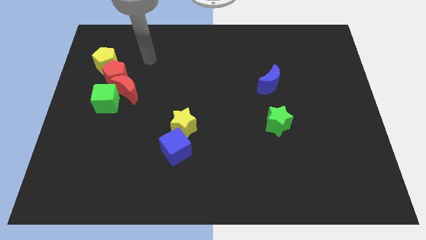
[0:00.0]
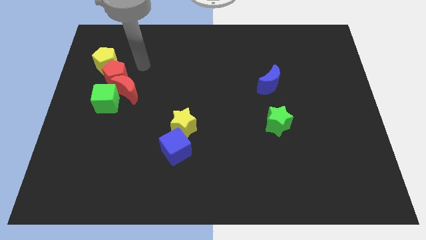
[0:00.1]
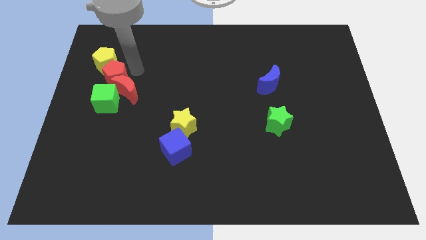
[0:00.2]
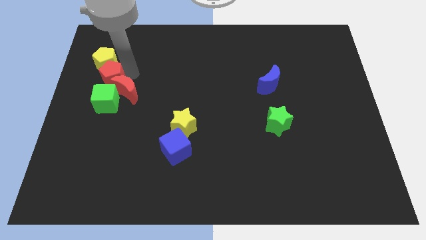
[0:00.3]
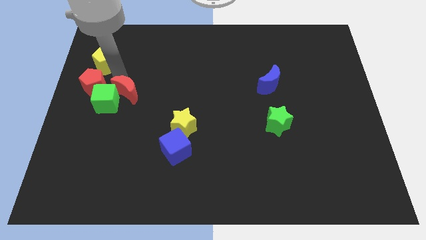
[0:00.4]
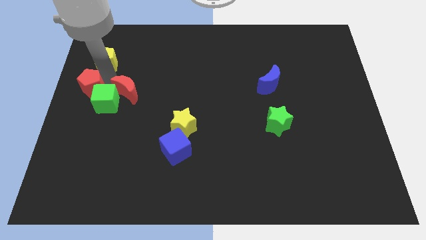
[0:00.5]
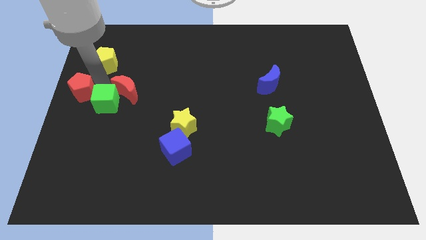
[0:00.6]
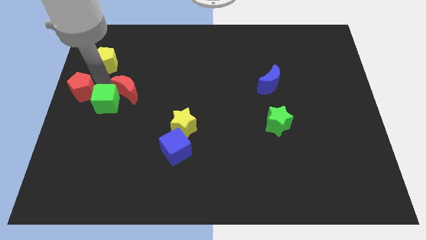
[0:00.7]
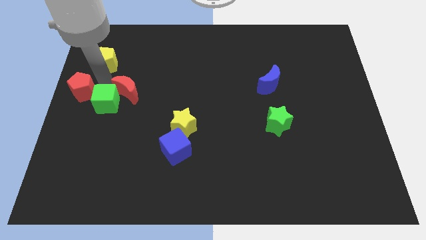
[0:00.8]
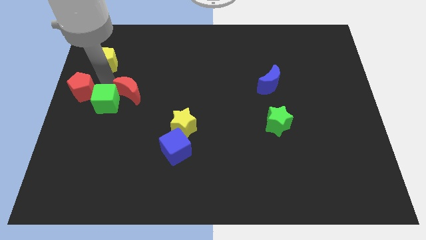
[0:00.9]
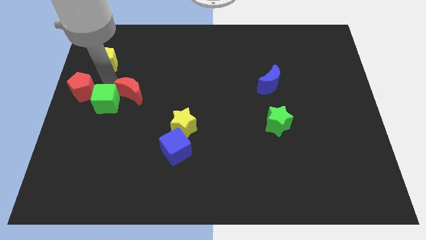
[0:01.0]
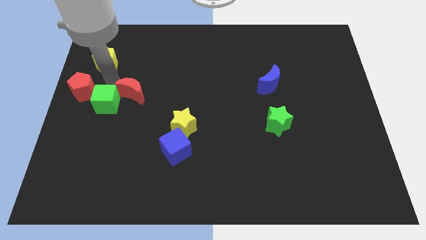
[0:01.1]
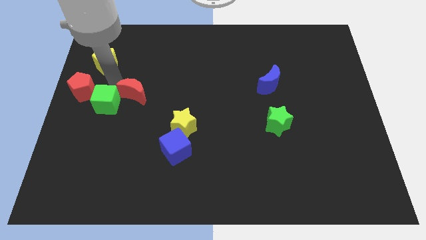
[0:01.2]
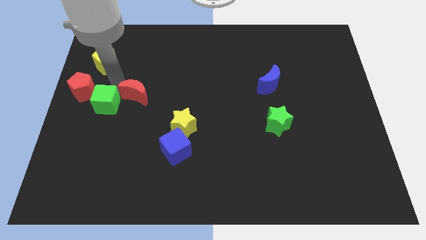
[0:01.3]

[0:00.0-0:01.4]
move the red moon away from the red pentagon and green cube

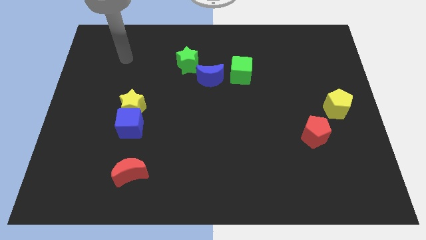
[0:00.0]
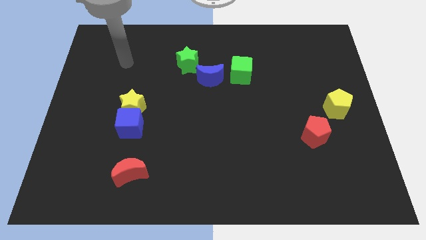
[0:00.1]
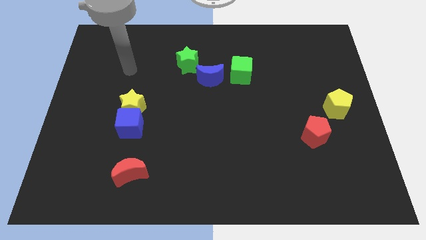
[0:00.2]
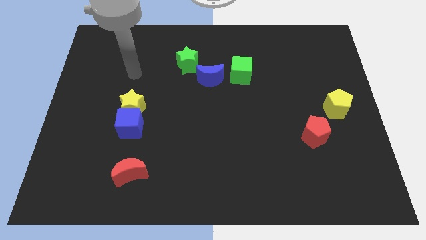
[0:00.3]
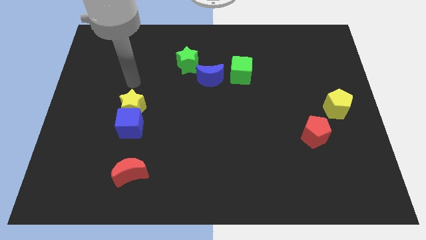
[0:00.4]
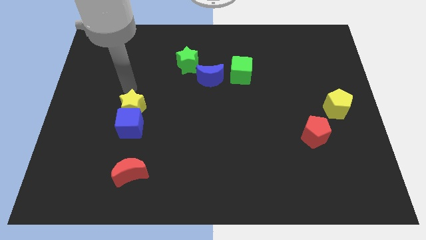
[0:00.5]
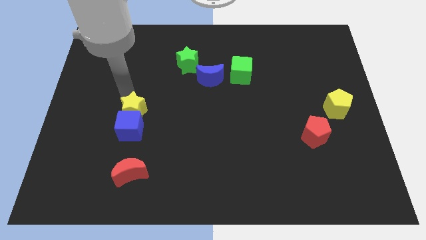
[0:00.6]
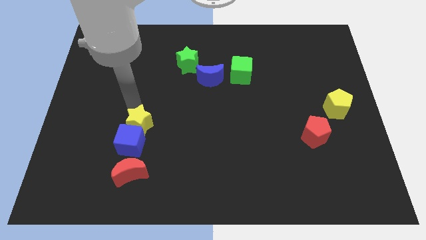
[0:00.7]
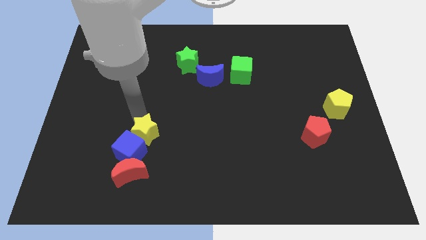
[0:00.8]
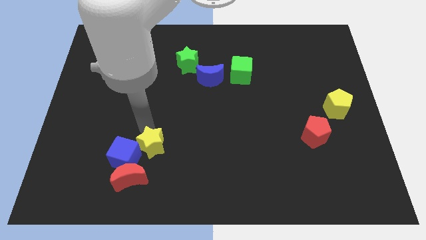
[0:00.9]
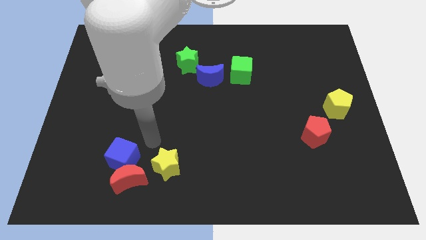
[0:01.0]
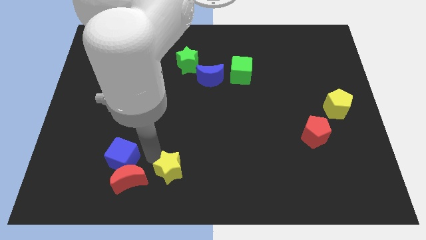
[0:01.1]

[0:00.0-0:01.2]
move the blue cube away from the yellow star

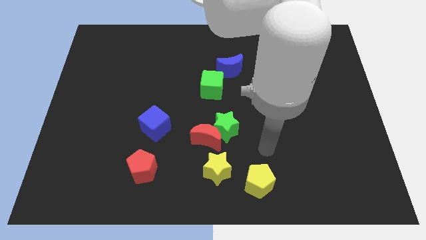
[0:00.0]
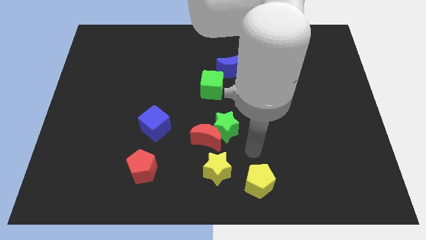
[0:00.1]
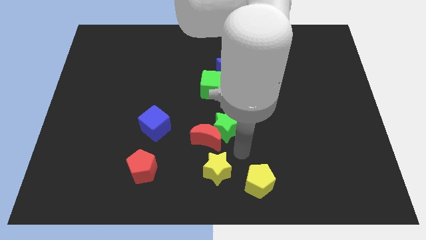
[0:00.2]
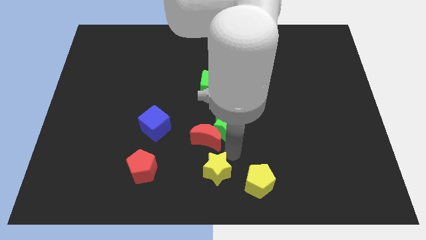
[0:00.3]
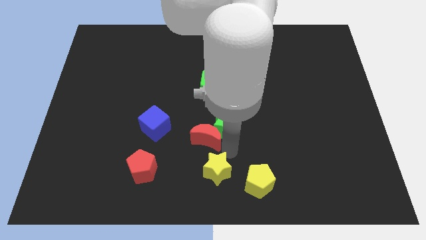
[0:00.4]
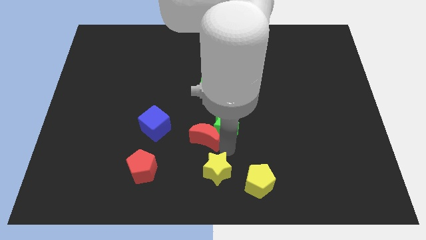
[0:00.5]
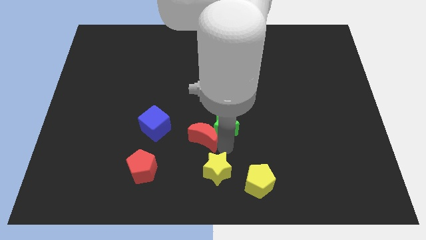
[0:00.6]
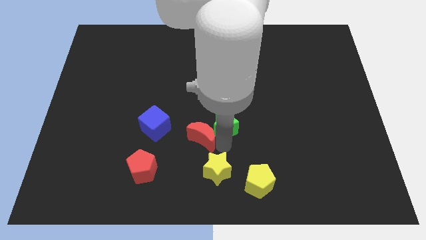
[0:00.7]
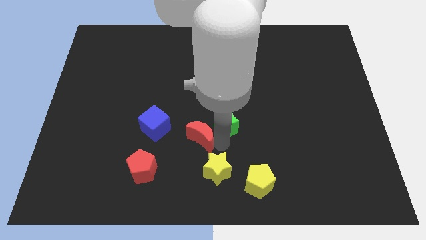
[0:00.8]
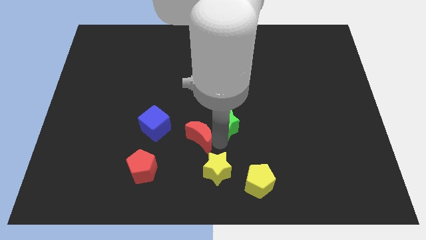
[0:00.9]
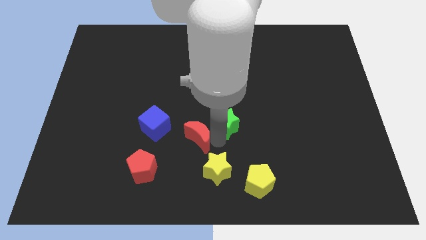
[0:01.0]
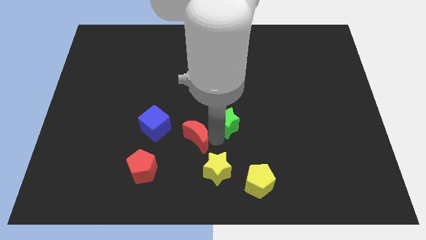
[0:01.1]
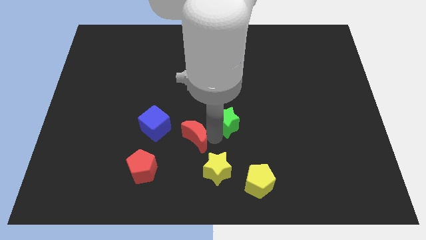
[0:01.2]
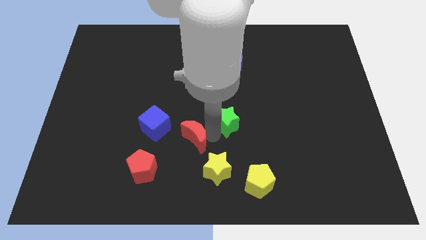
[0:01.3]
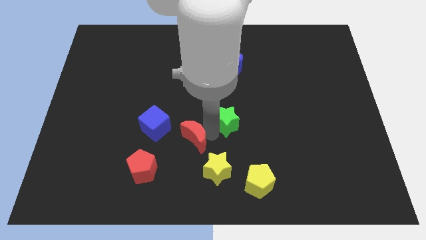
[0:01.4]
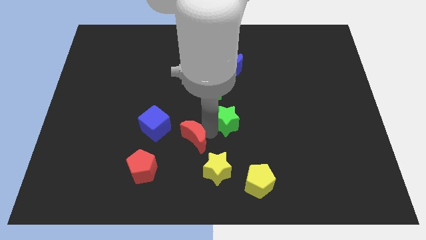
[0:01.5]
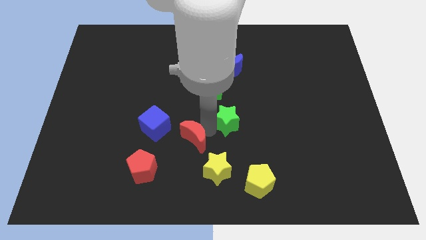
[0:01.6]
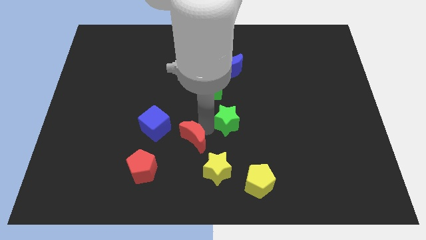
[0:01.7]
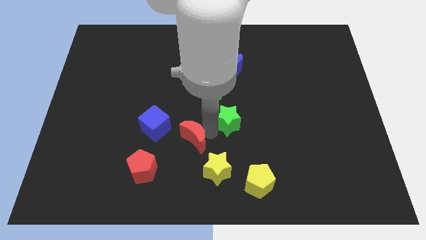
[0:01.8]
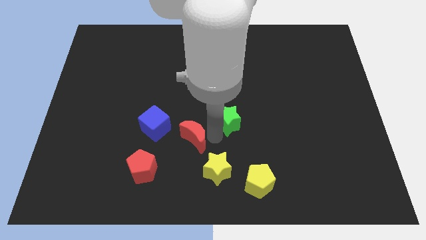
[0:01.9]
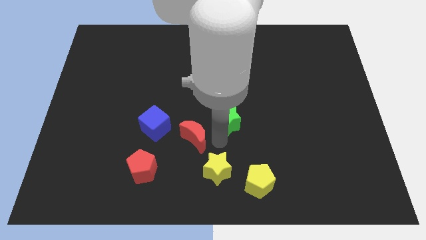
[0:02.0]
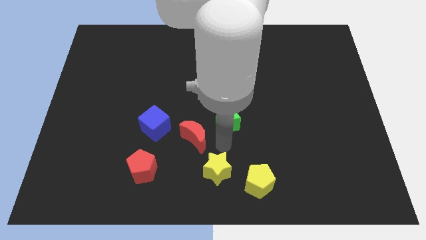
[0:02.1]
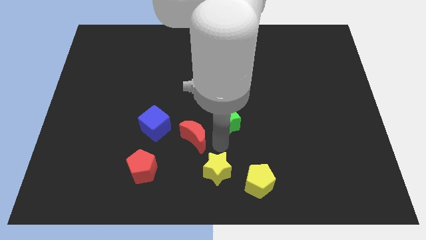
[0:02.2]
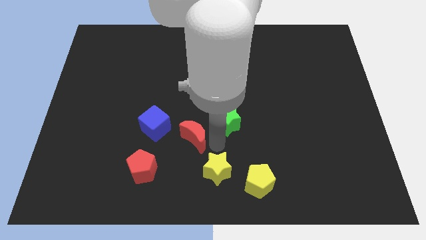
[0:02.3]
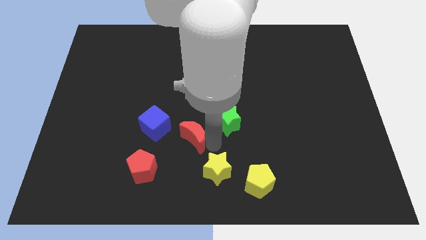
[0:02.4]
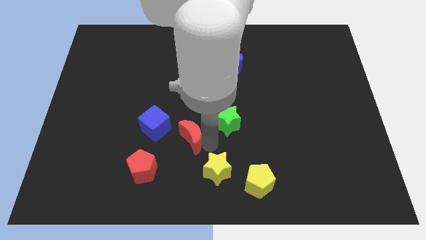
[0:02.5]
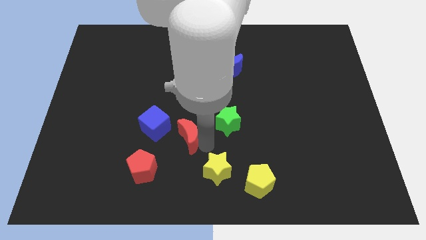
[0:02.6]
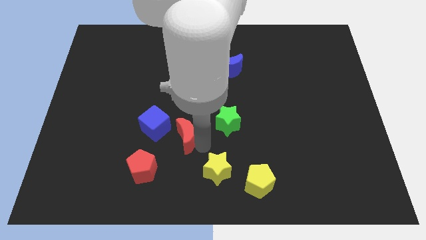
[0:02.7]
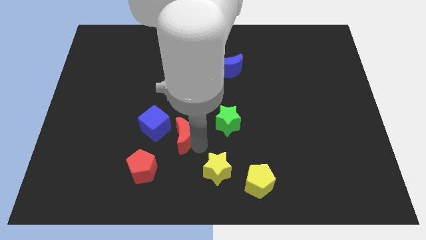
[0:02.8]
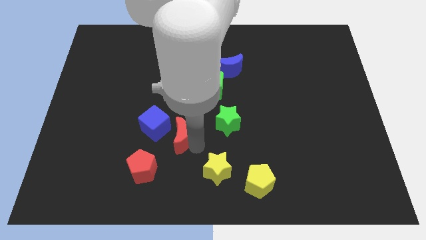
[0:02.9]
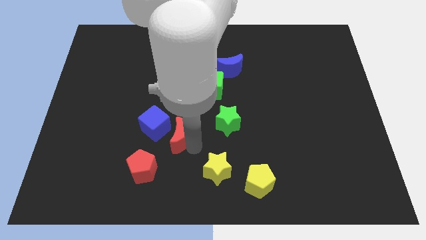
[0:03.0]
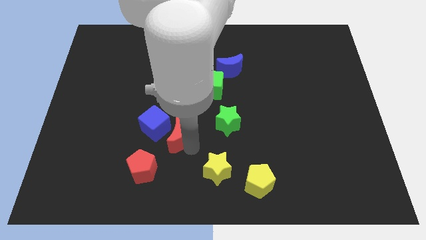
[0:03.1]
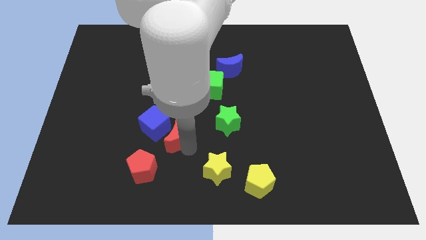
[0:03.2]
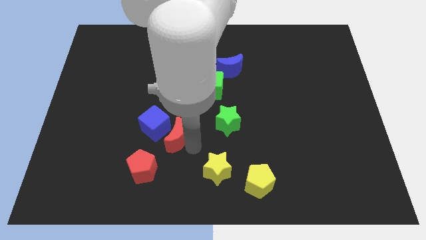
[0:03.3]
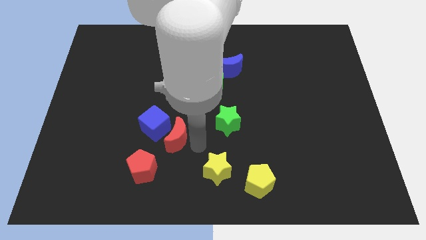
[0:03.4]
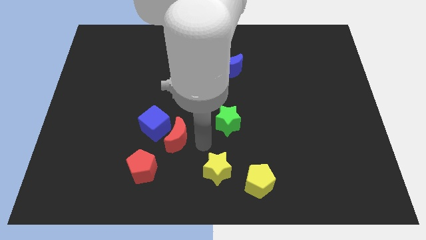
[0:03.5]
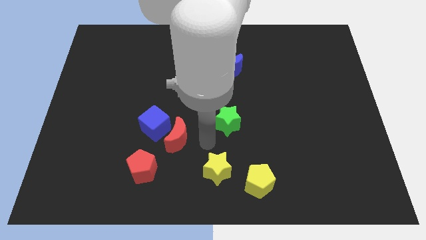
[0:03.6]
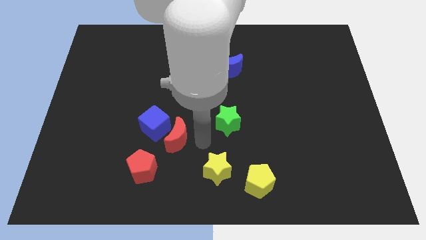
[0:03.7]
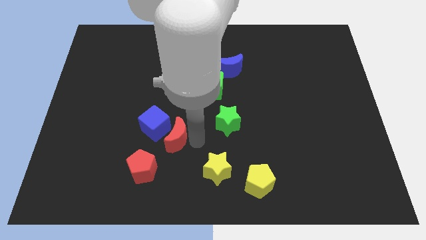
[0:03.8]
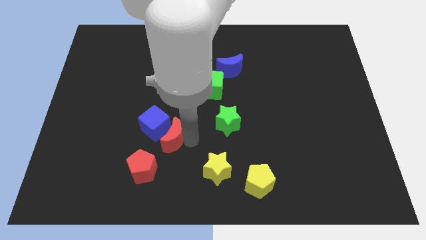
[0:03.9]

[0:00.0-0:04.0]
separate the red moon from the green star and yellow star

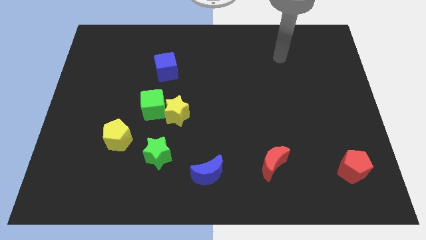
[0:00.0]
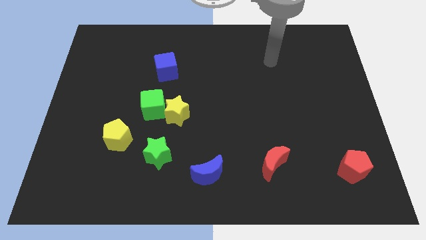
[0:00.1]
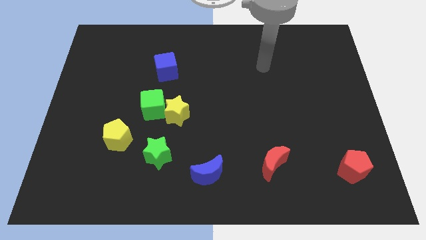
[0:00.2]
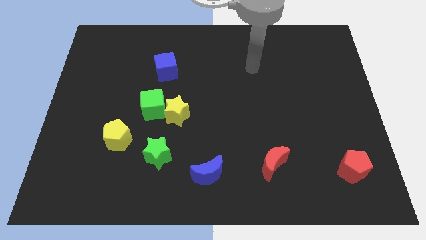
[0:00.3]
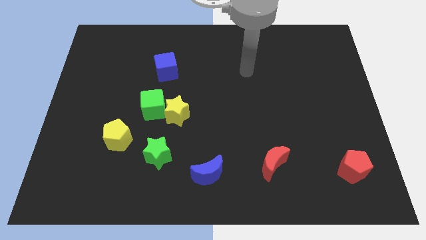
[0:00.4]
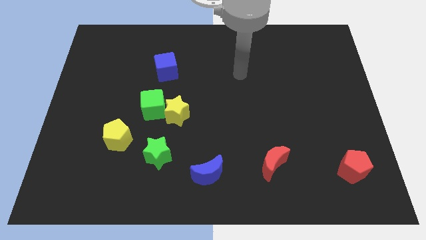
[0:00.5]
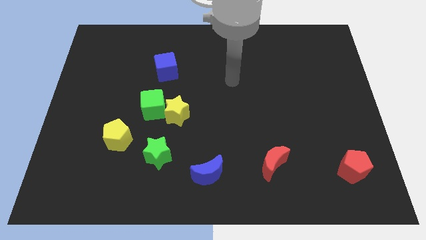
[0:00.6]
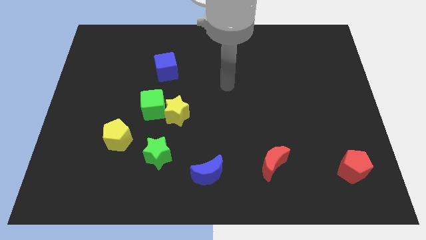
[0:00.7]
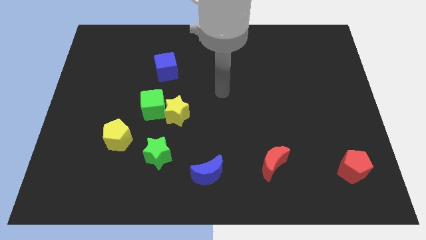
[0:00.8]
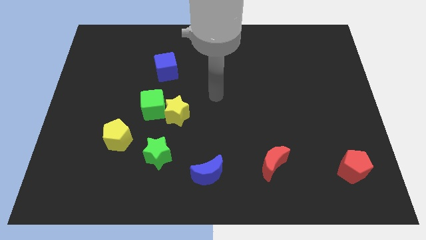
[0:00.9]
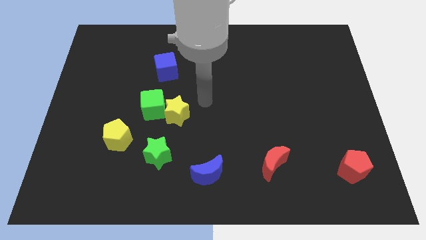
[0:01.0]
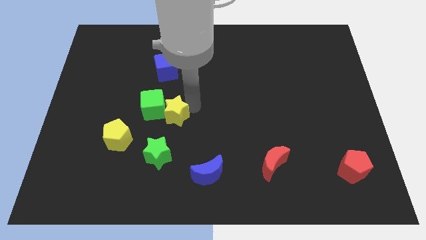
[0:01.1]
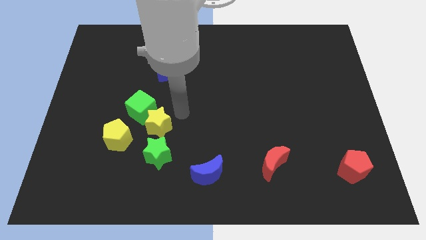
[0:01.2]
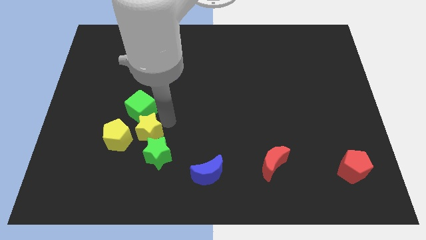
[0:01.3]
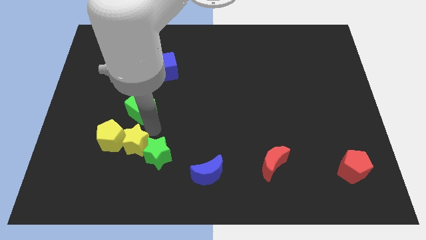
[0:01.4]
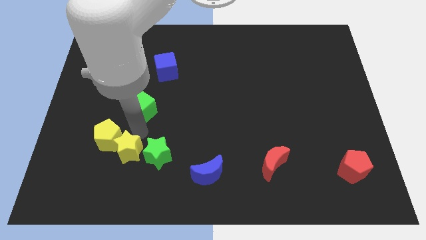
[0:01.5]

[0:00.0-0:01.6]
separate the green cube from the yellow star

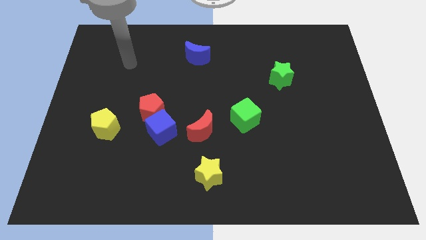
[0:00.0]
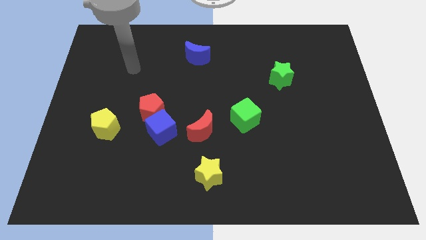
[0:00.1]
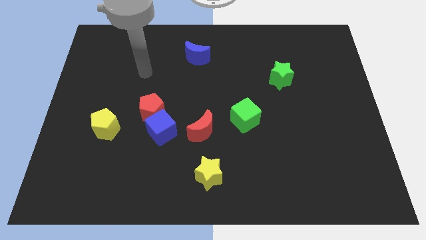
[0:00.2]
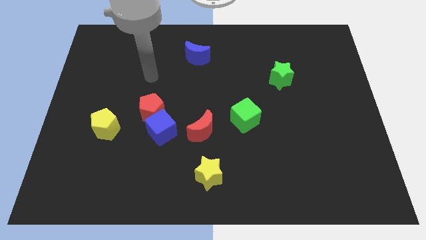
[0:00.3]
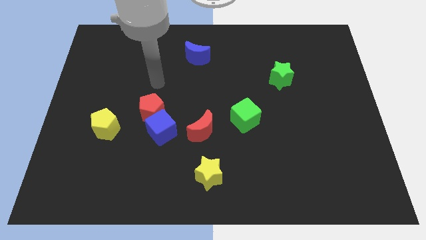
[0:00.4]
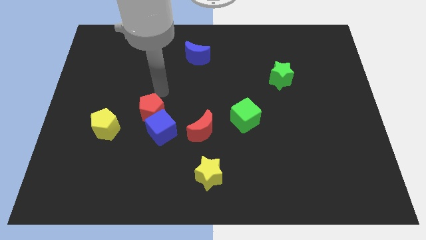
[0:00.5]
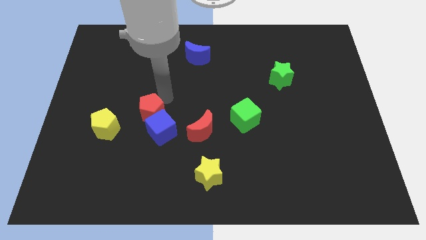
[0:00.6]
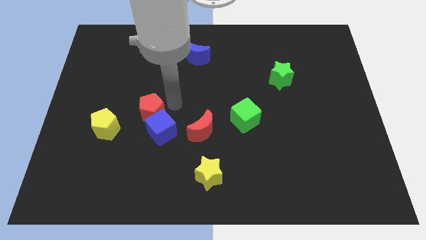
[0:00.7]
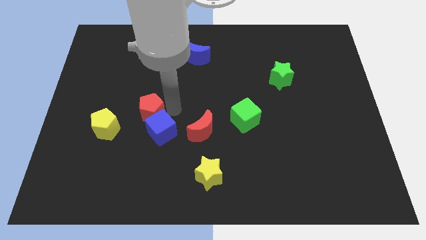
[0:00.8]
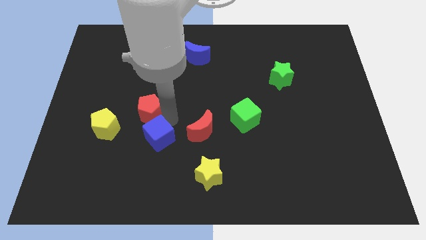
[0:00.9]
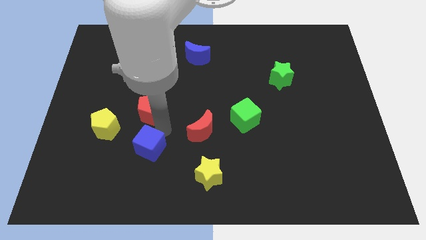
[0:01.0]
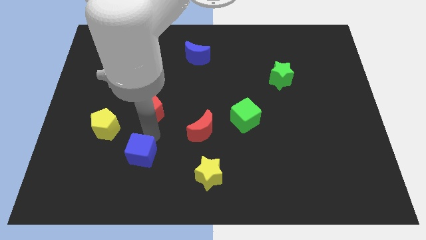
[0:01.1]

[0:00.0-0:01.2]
move the red pentagon away from the blue cube
